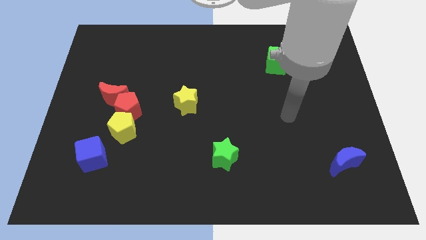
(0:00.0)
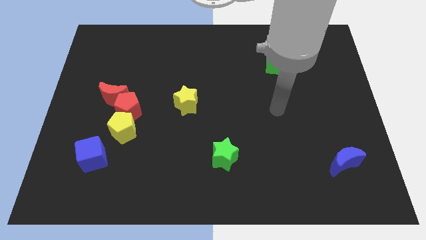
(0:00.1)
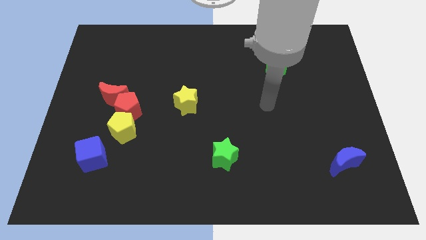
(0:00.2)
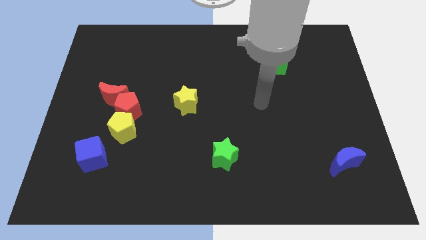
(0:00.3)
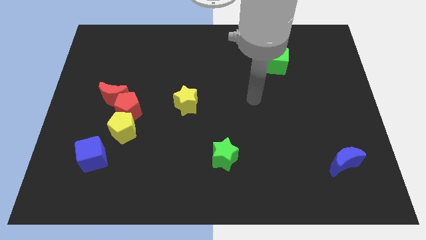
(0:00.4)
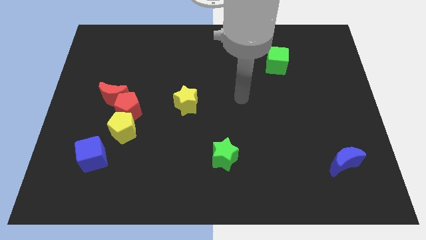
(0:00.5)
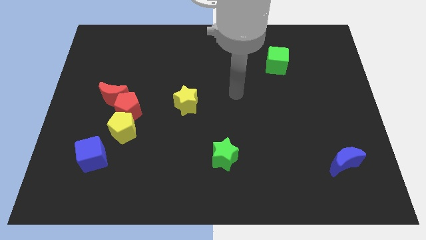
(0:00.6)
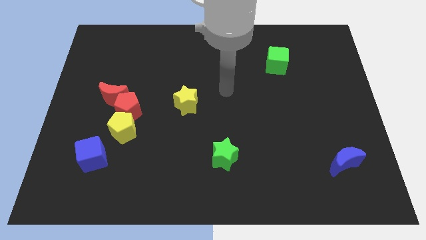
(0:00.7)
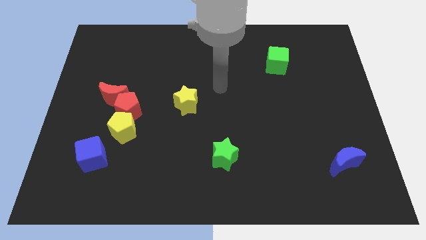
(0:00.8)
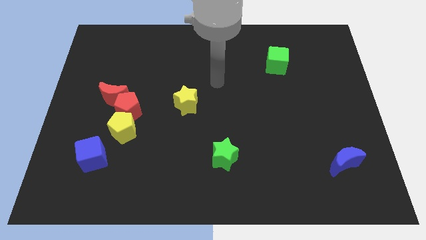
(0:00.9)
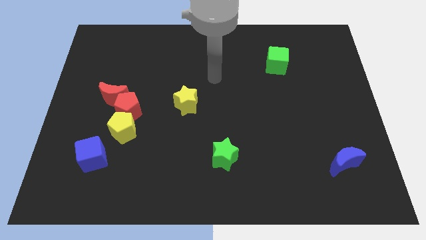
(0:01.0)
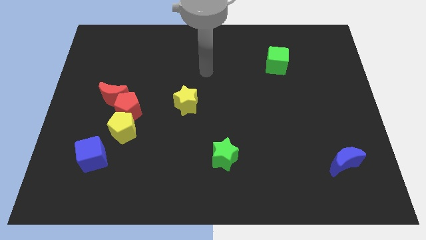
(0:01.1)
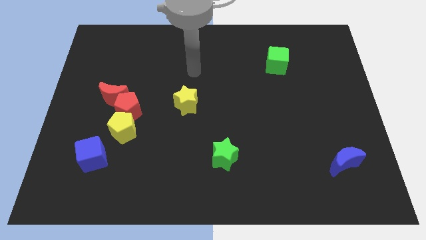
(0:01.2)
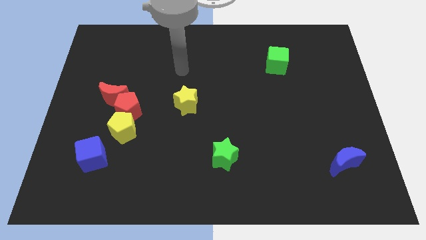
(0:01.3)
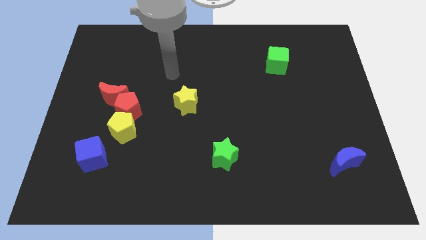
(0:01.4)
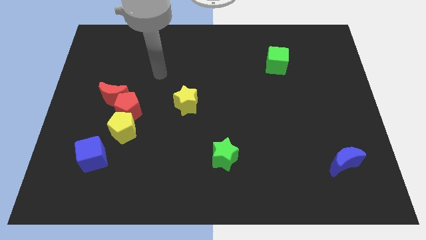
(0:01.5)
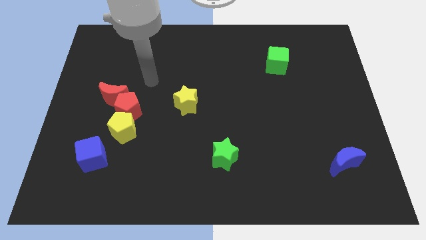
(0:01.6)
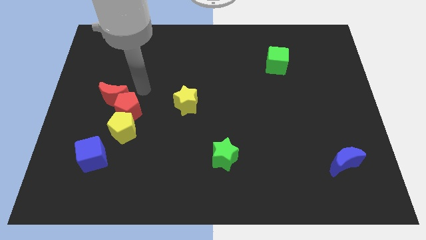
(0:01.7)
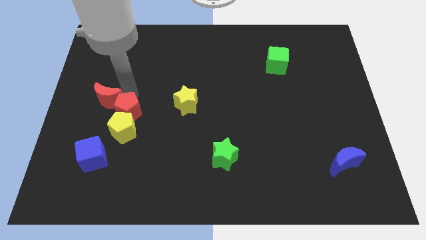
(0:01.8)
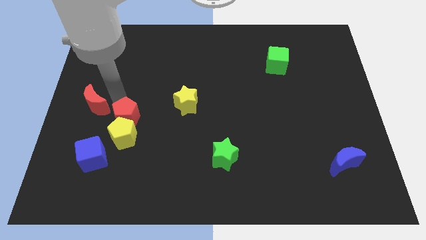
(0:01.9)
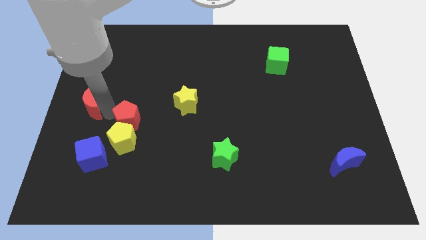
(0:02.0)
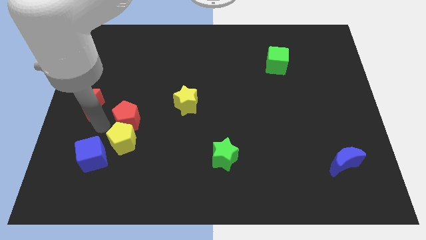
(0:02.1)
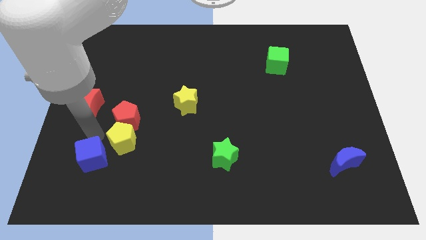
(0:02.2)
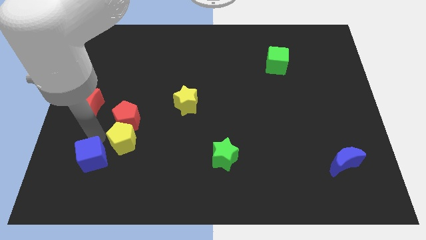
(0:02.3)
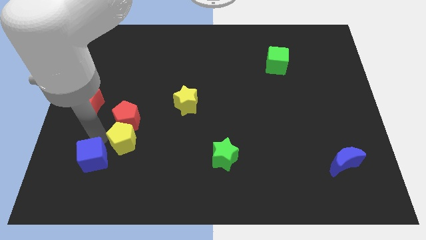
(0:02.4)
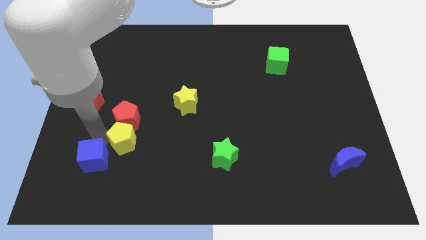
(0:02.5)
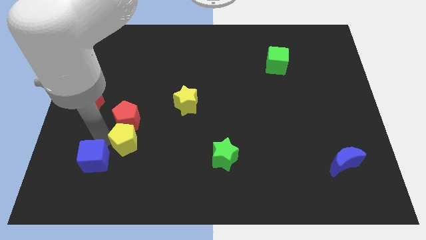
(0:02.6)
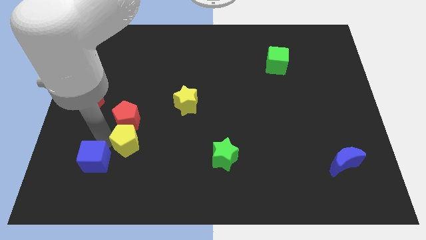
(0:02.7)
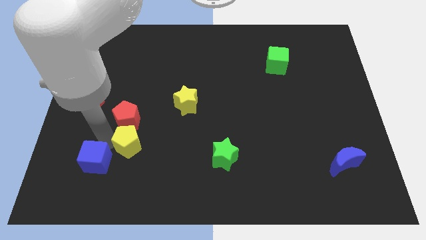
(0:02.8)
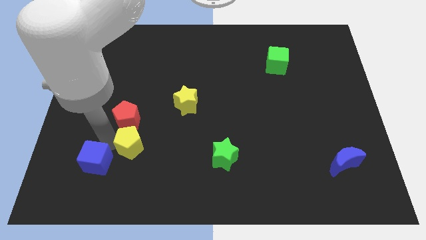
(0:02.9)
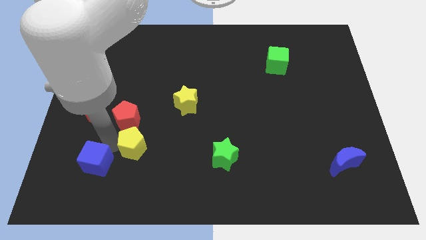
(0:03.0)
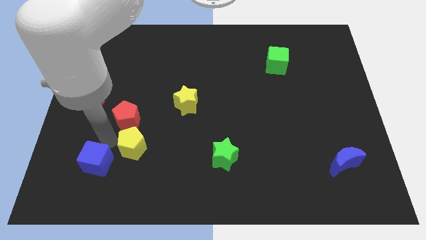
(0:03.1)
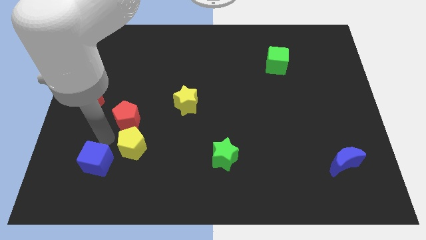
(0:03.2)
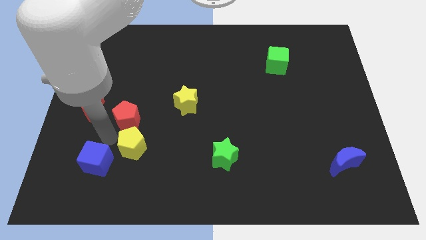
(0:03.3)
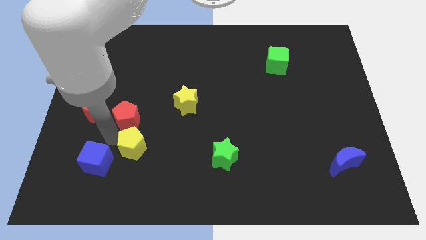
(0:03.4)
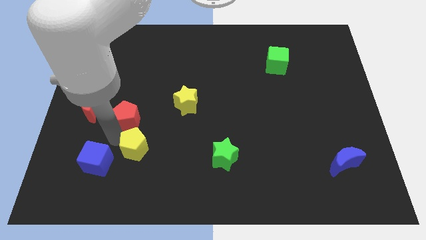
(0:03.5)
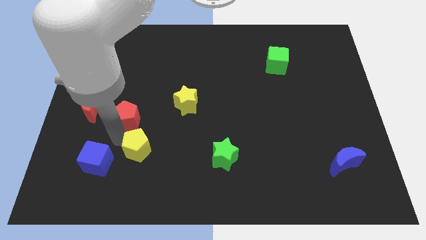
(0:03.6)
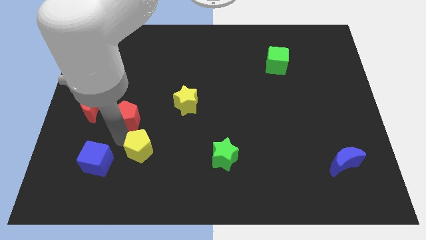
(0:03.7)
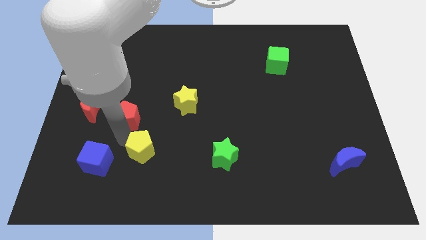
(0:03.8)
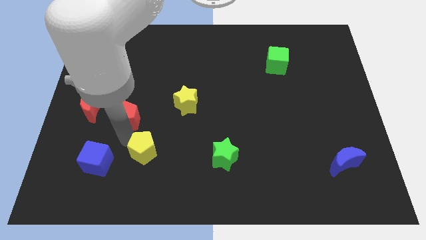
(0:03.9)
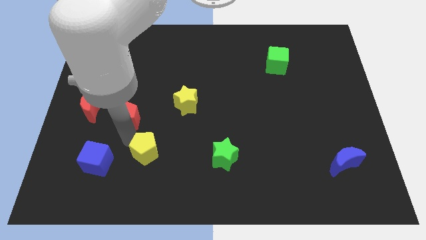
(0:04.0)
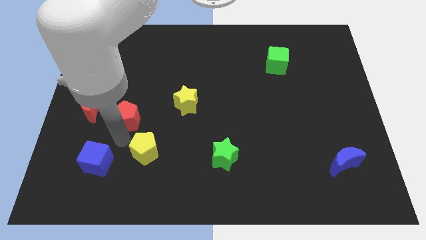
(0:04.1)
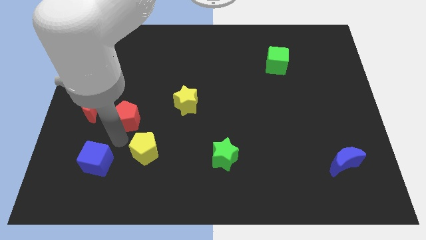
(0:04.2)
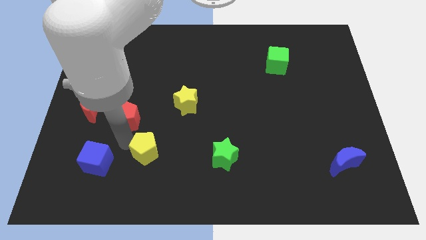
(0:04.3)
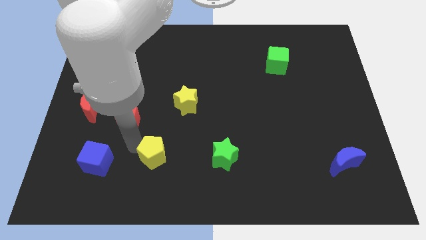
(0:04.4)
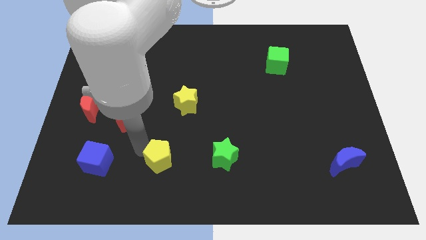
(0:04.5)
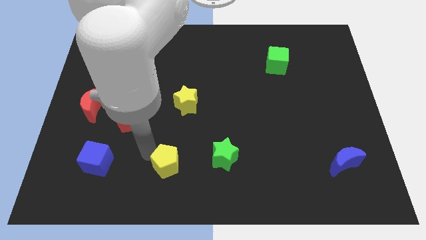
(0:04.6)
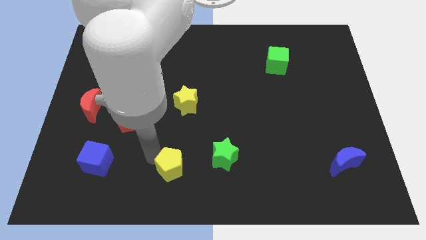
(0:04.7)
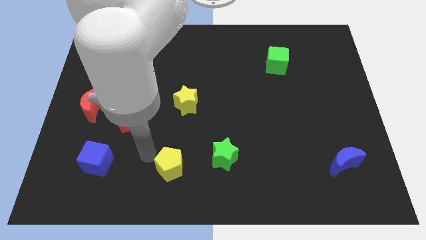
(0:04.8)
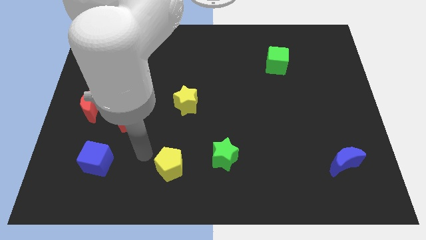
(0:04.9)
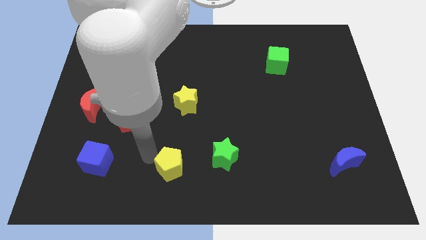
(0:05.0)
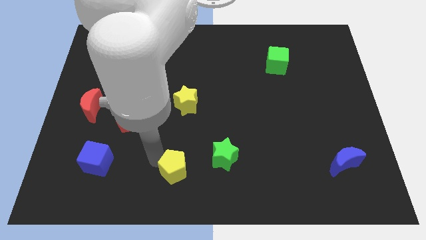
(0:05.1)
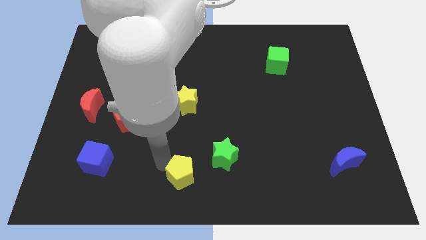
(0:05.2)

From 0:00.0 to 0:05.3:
push the yellow pentagon to the bottom left side of the green star

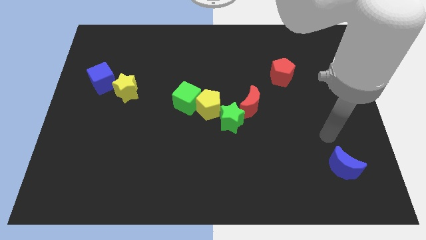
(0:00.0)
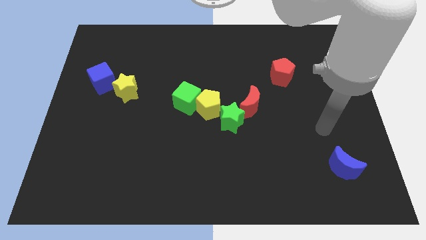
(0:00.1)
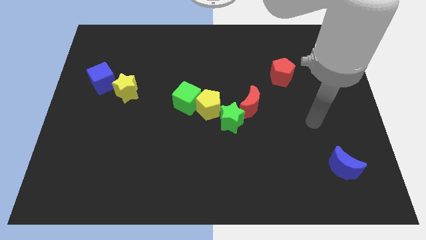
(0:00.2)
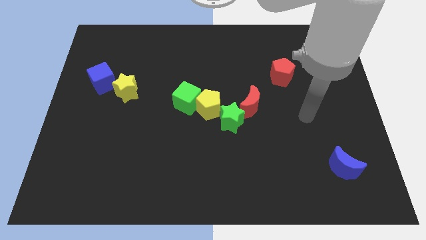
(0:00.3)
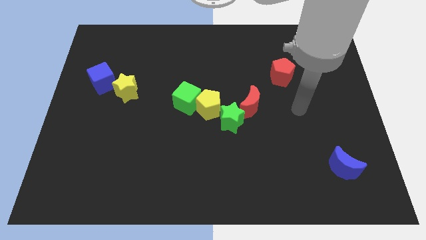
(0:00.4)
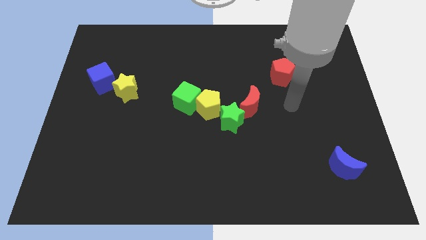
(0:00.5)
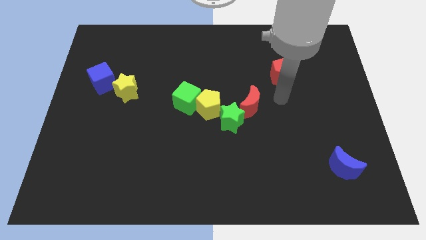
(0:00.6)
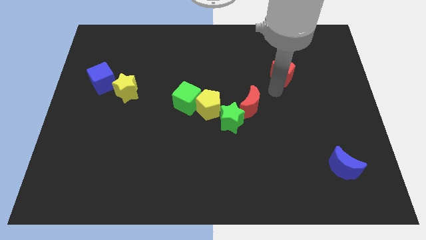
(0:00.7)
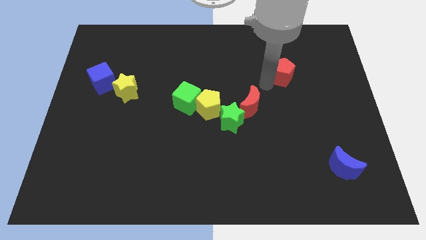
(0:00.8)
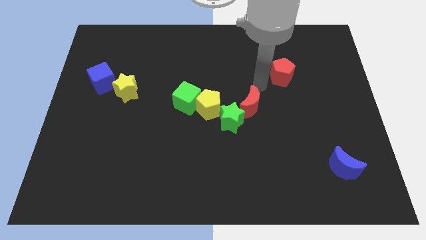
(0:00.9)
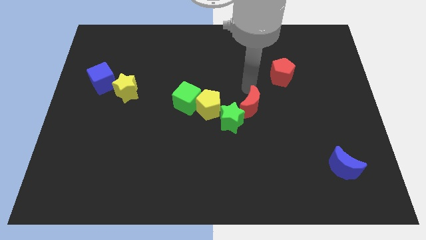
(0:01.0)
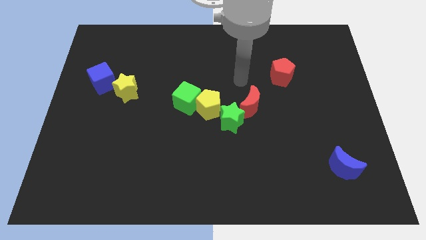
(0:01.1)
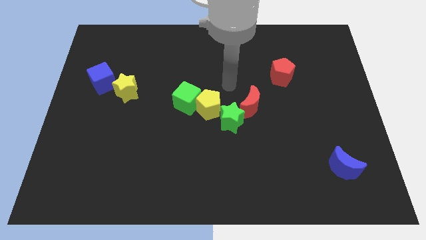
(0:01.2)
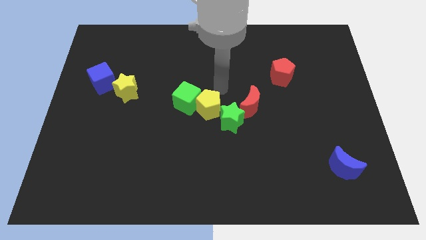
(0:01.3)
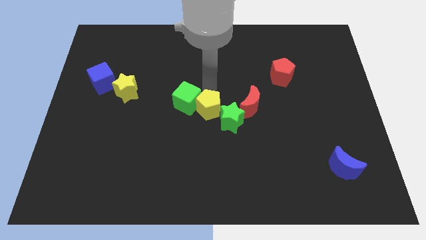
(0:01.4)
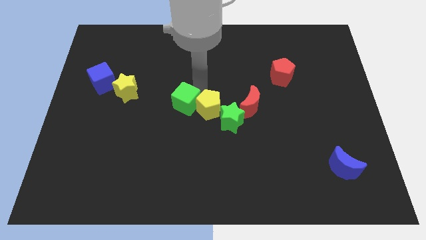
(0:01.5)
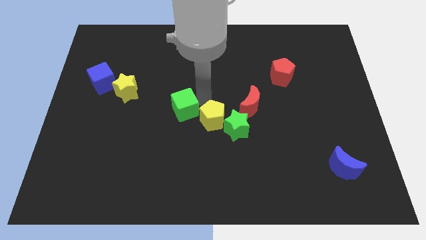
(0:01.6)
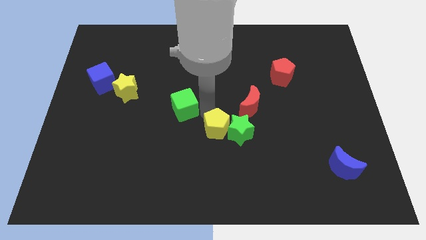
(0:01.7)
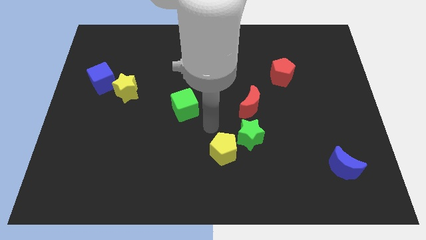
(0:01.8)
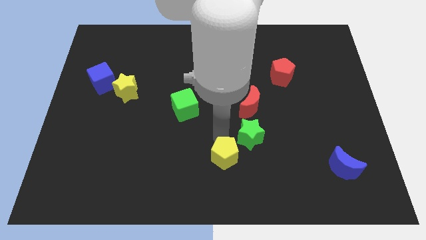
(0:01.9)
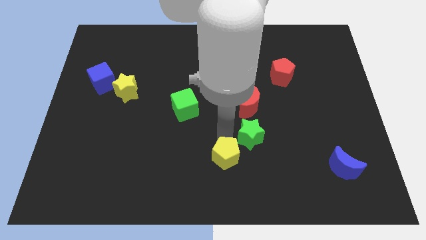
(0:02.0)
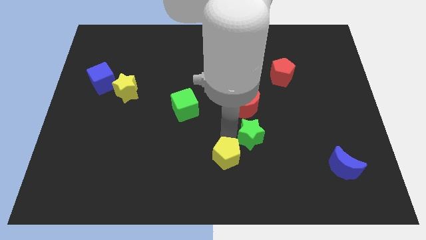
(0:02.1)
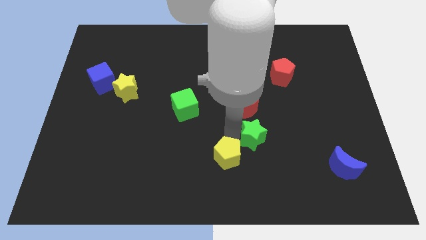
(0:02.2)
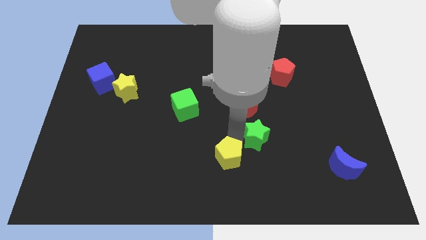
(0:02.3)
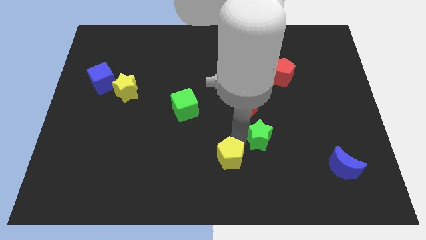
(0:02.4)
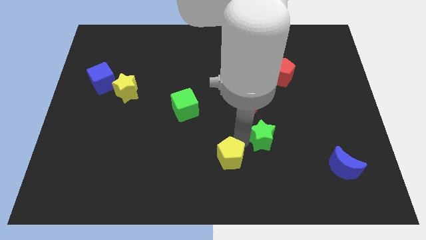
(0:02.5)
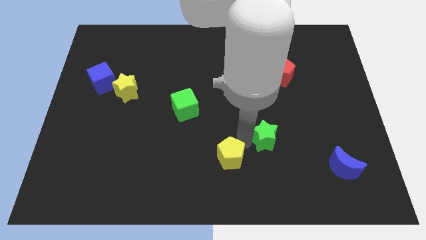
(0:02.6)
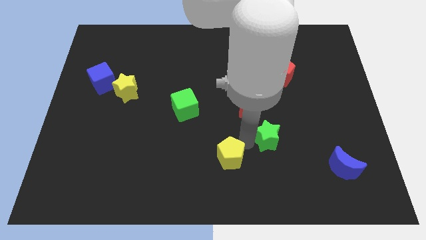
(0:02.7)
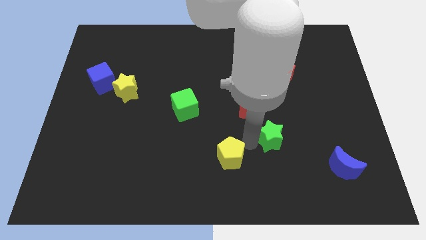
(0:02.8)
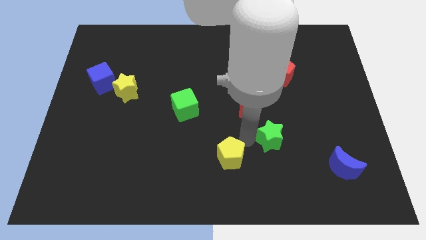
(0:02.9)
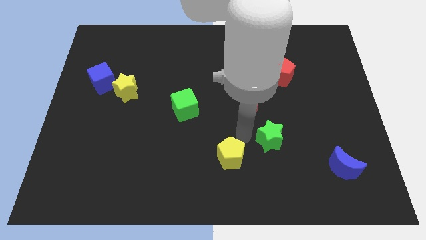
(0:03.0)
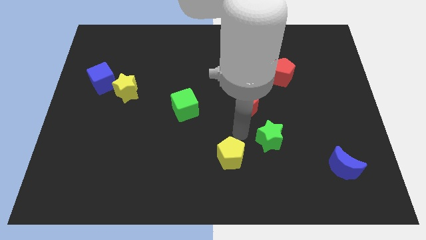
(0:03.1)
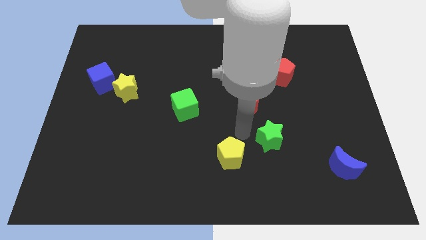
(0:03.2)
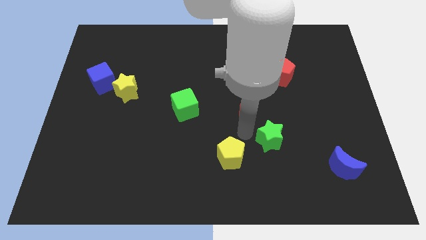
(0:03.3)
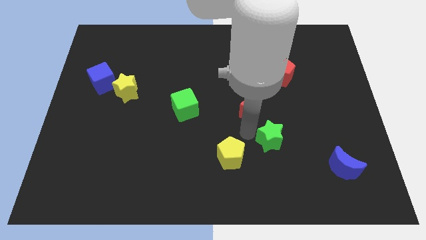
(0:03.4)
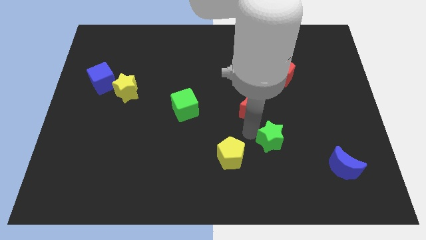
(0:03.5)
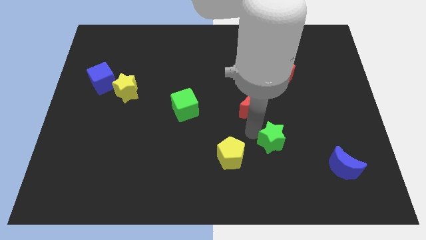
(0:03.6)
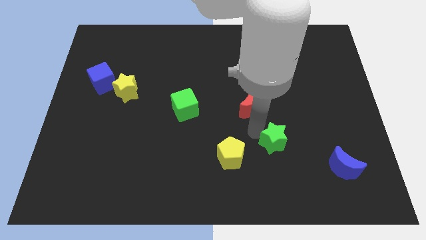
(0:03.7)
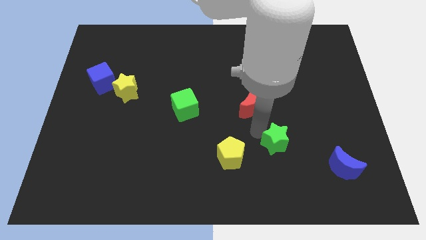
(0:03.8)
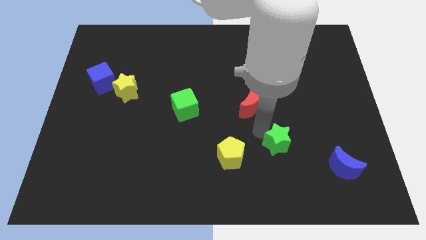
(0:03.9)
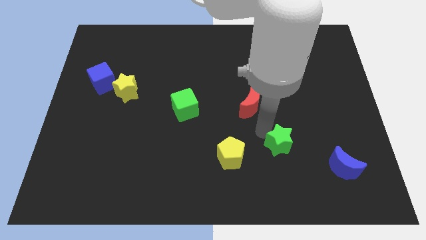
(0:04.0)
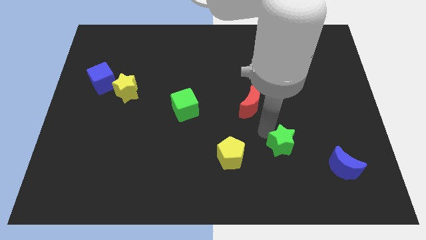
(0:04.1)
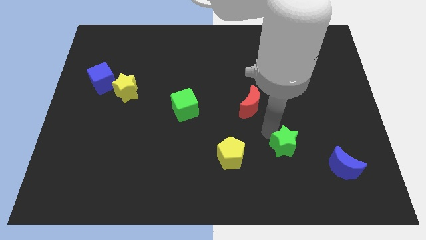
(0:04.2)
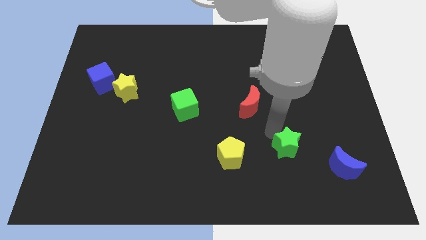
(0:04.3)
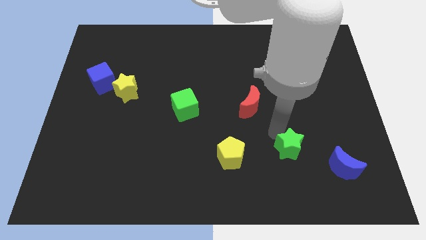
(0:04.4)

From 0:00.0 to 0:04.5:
move the green star to the top left of the blue moon
